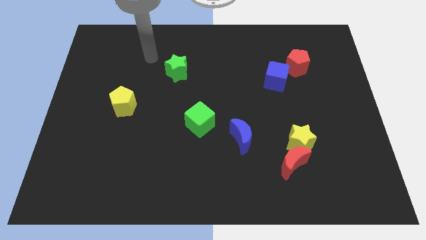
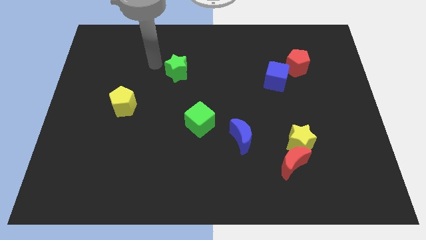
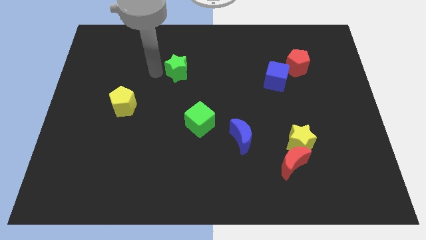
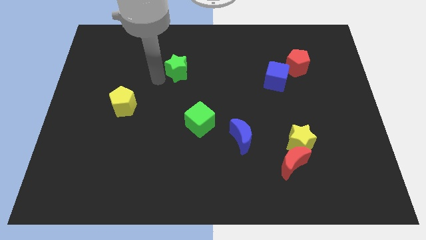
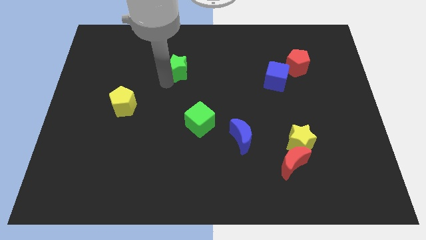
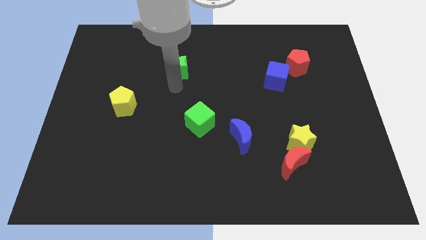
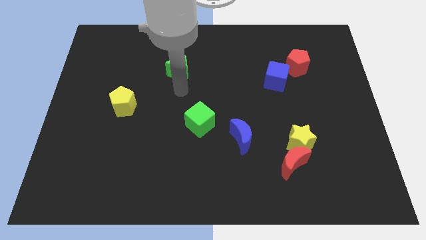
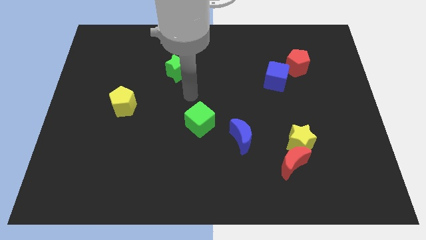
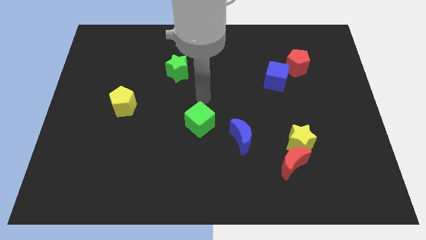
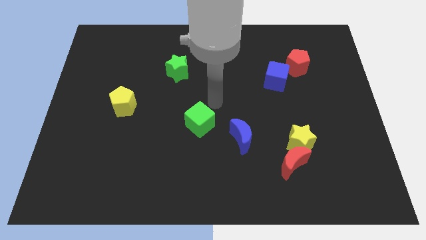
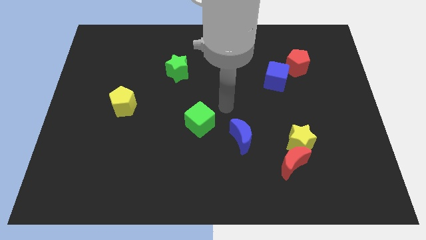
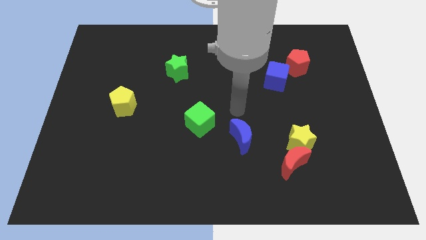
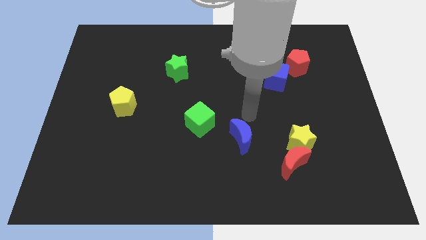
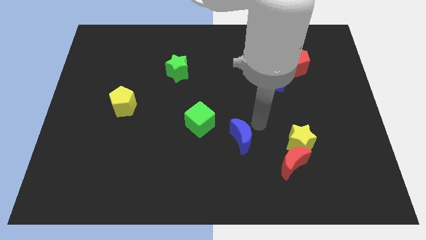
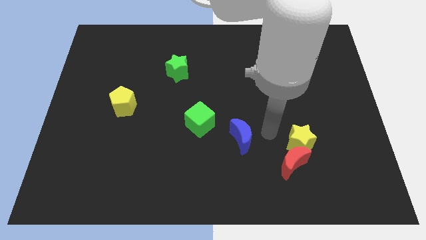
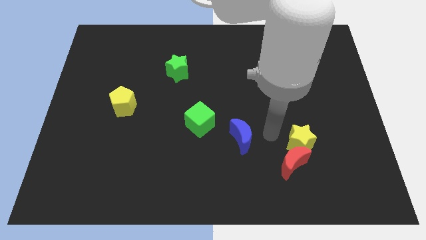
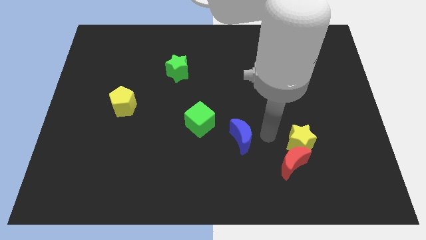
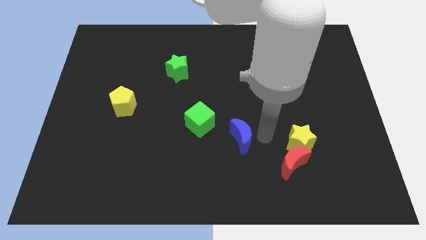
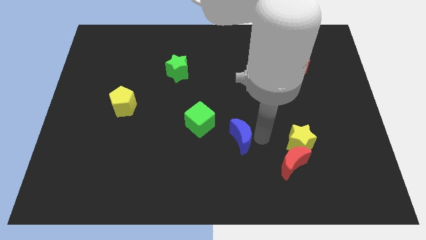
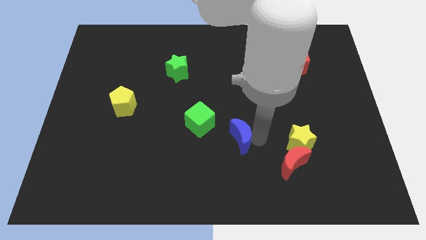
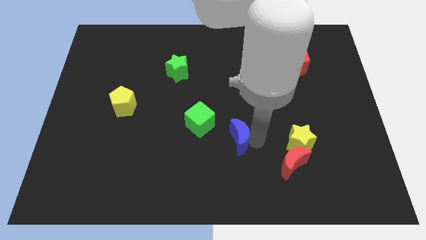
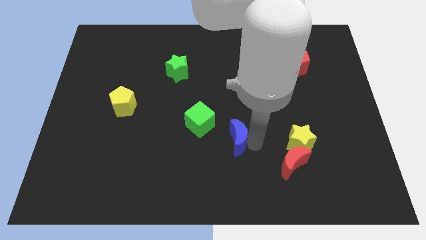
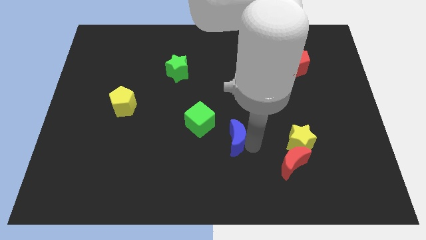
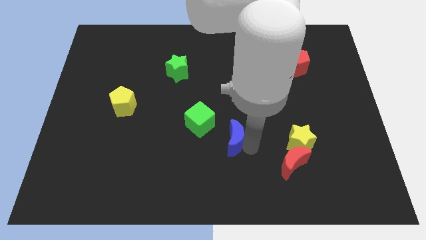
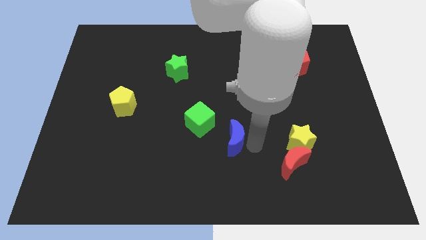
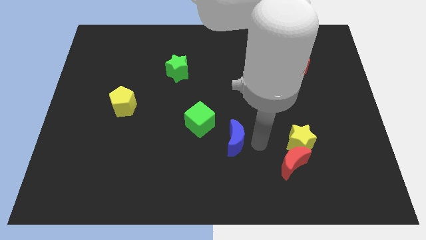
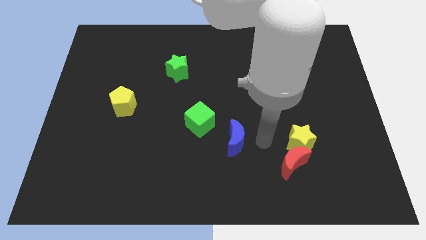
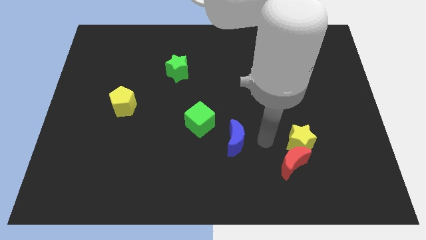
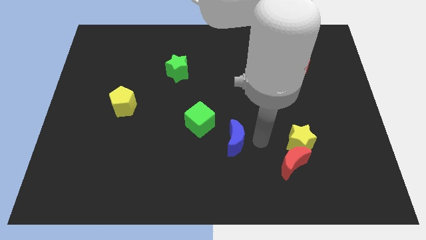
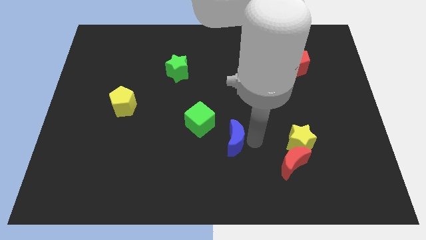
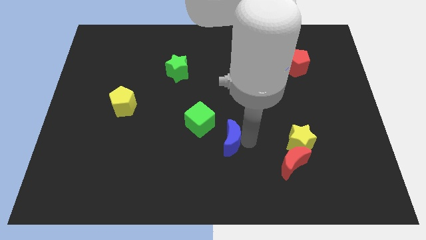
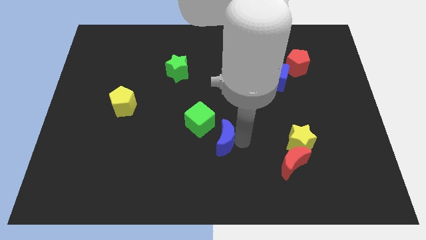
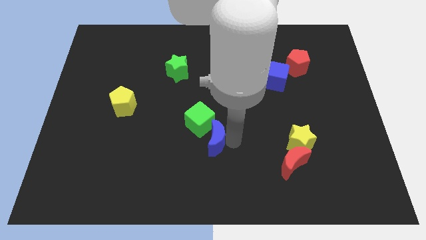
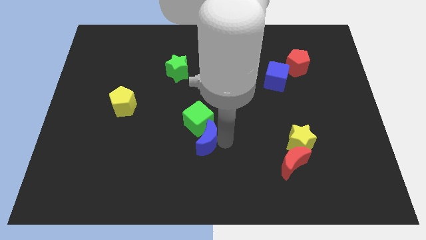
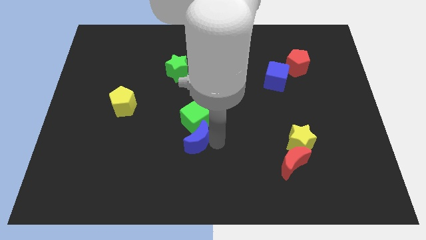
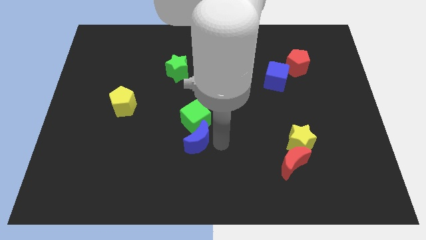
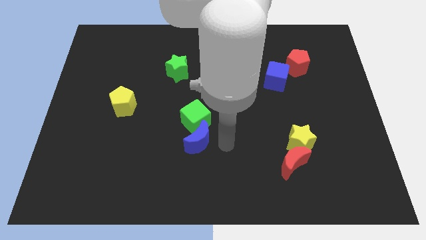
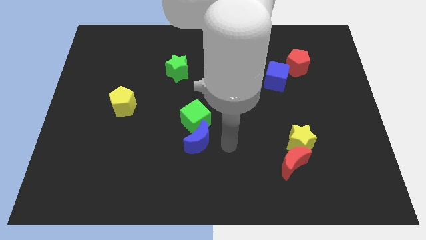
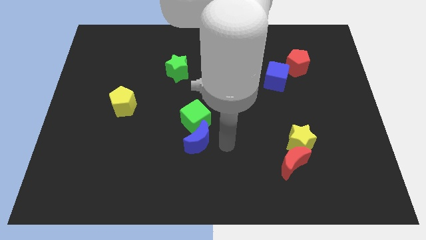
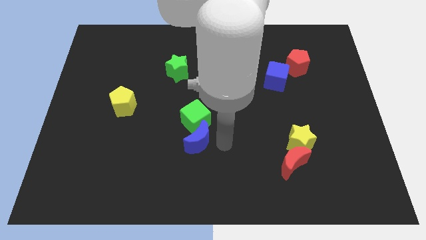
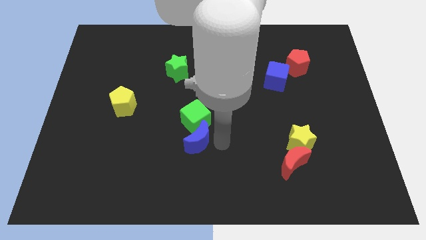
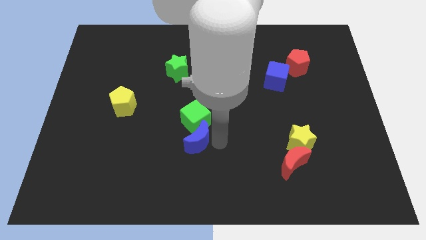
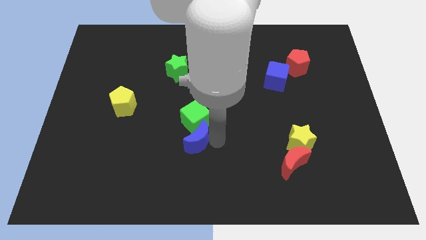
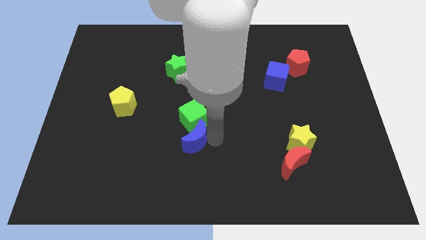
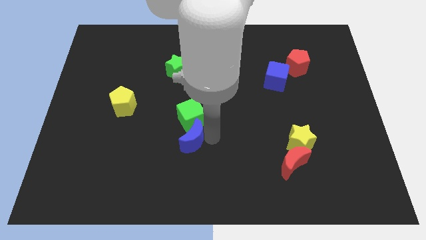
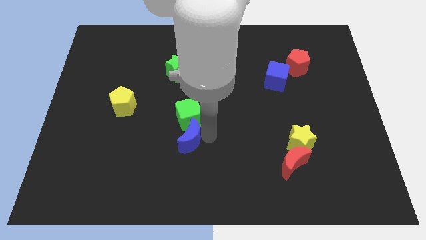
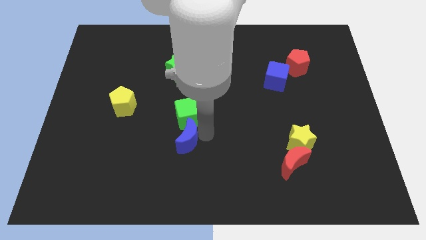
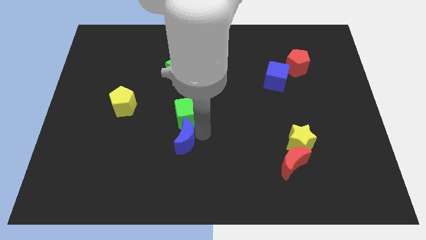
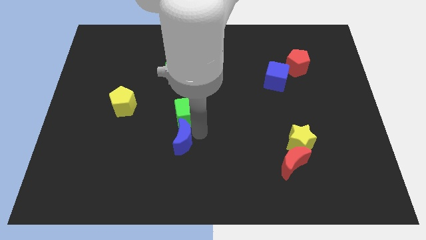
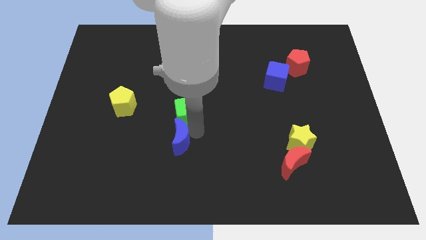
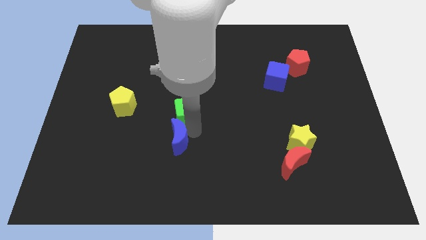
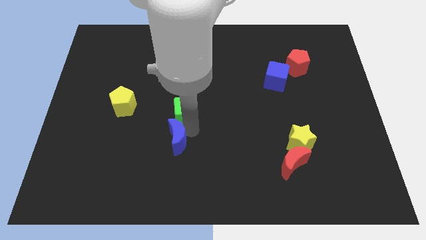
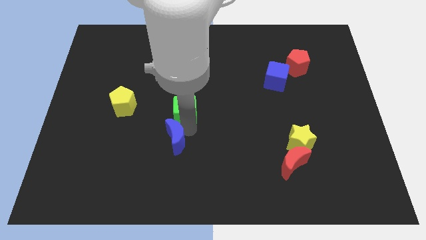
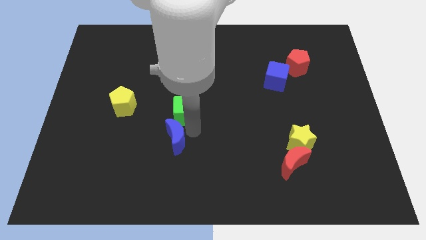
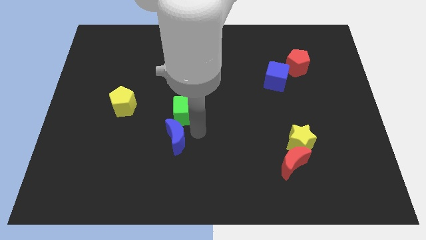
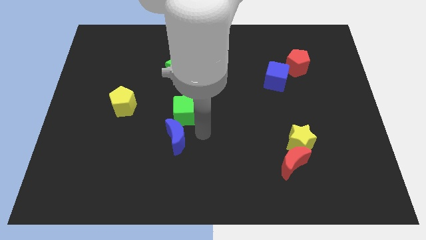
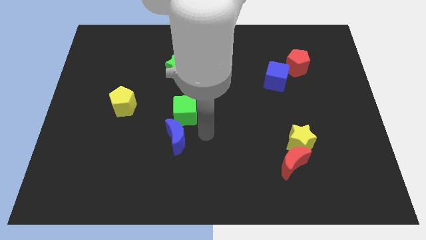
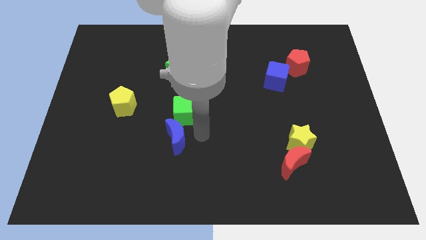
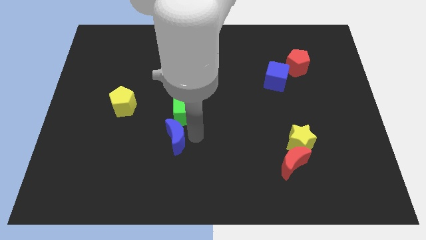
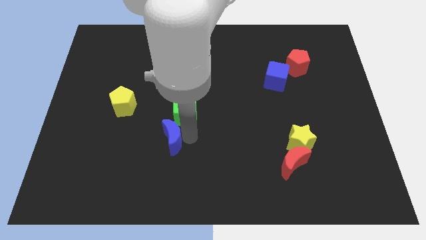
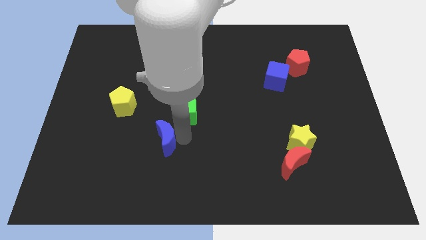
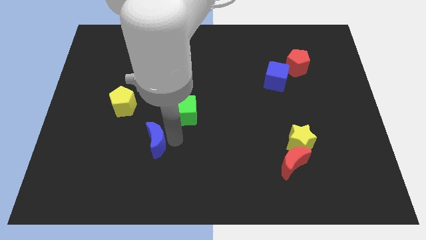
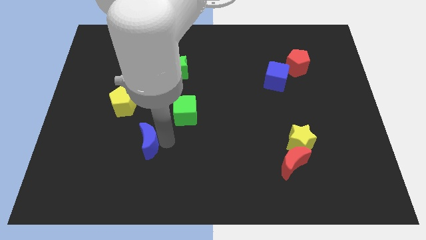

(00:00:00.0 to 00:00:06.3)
move the blue moon left

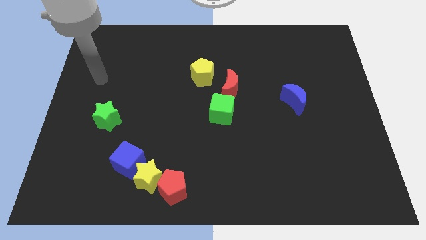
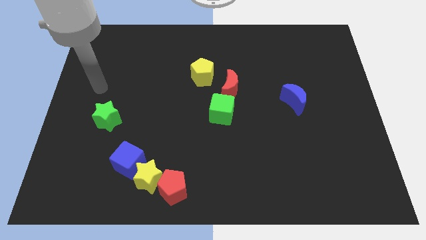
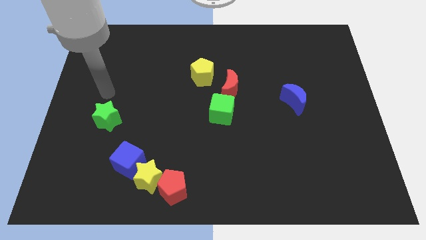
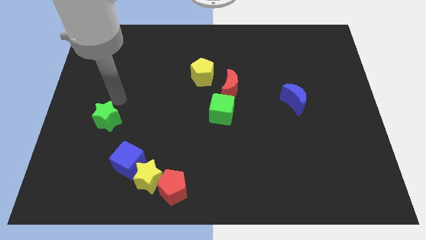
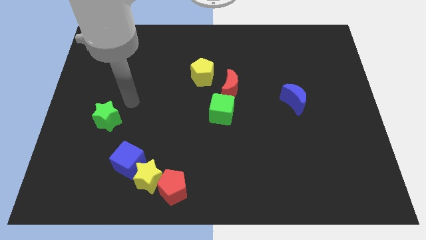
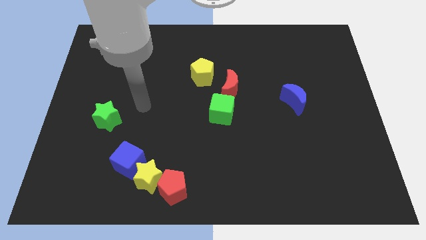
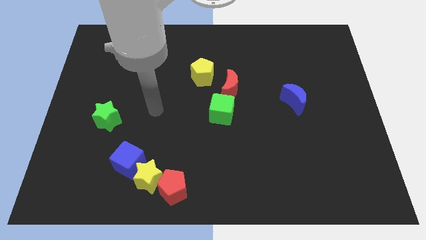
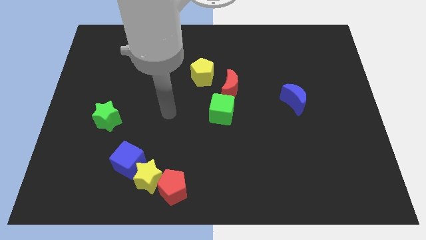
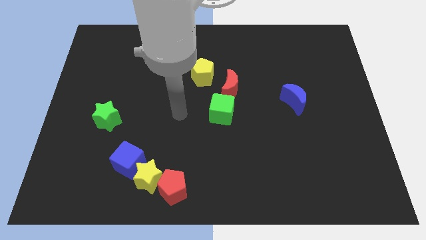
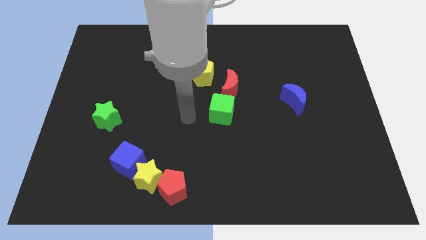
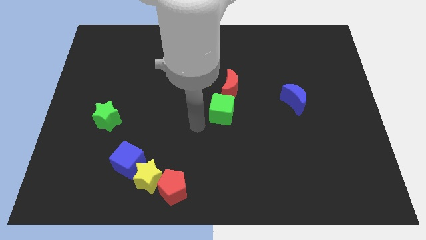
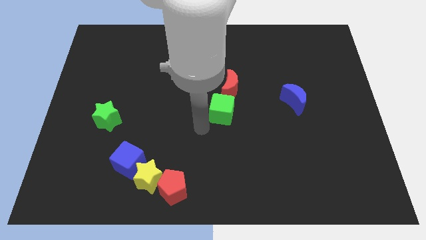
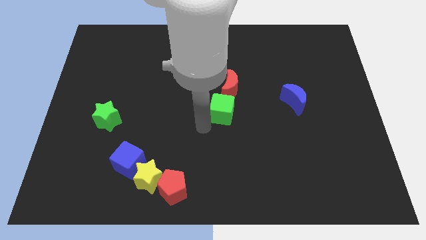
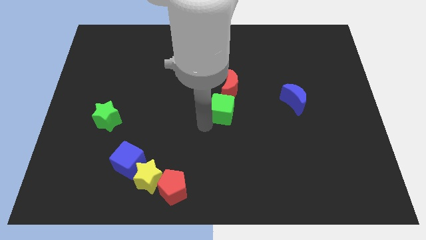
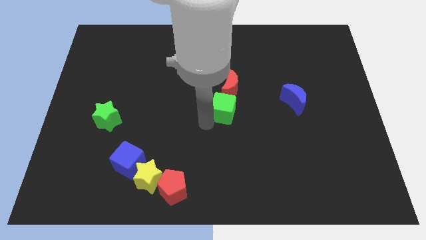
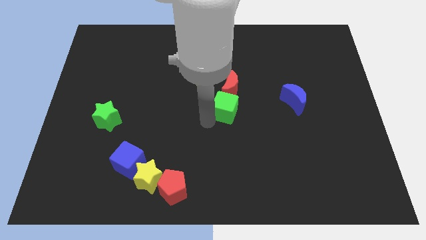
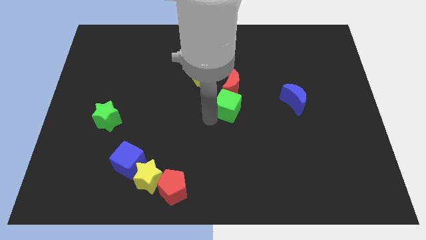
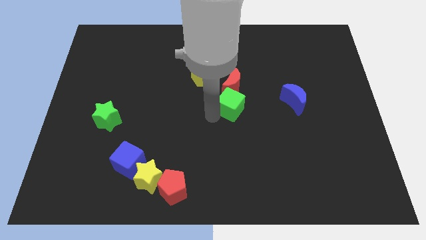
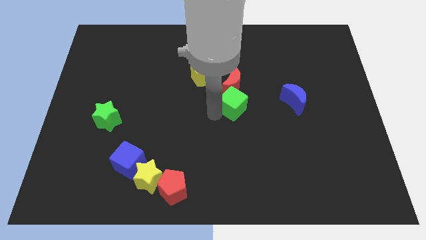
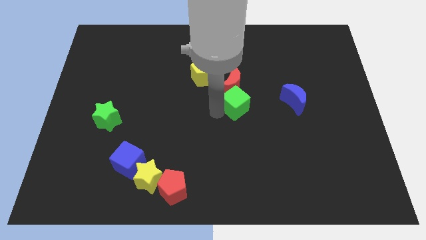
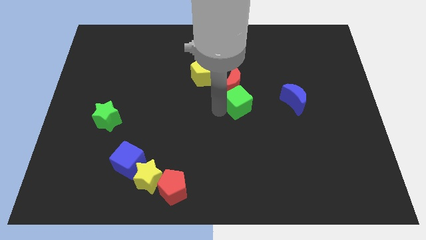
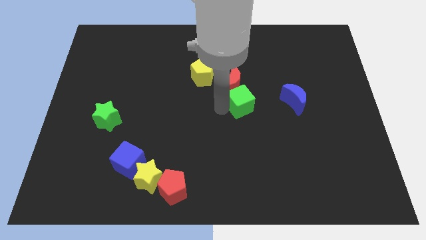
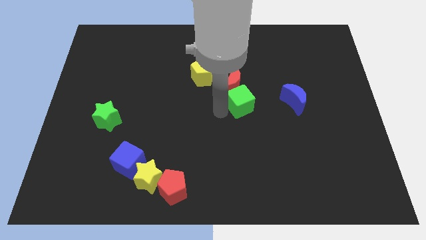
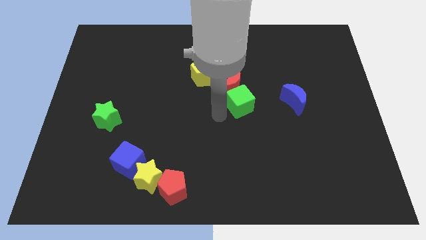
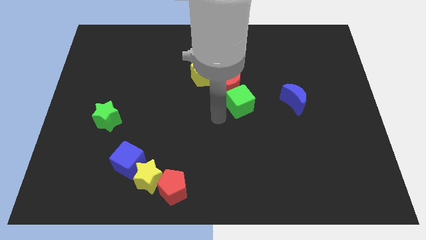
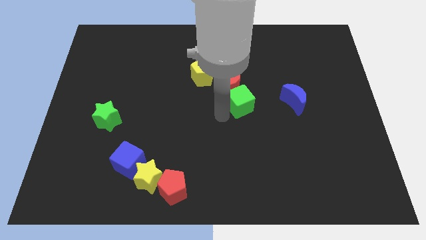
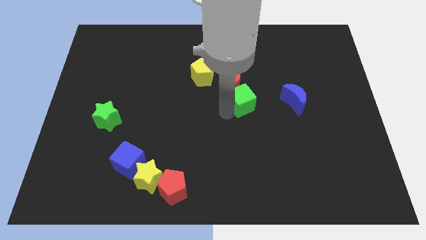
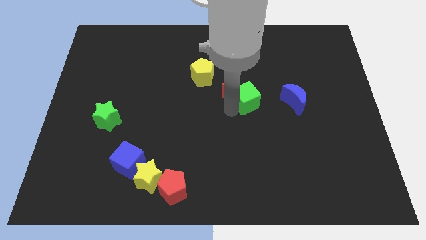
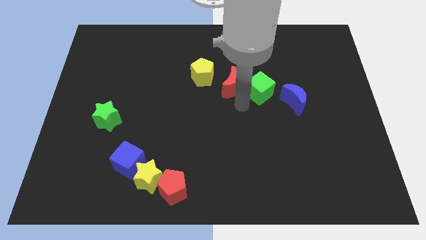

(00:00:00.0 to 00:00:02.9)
move the green cube up and then to the right a little bit
